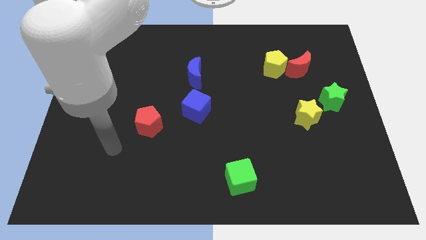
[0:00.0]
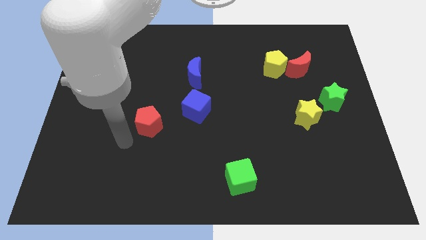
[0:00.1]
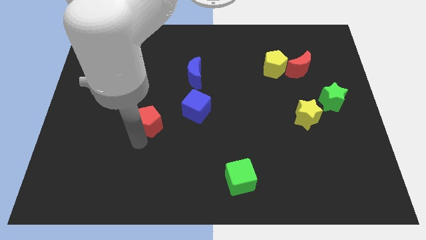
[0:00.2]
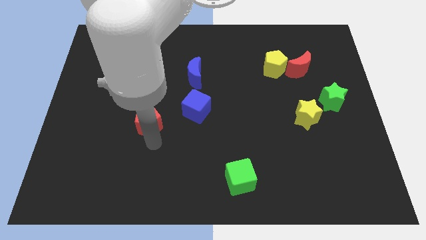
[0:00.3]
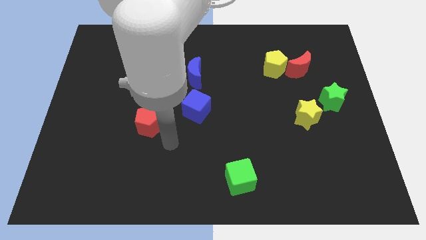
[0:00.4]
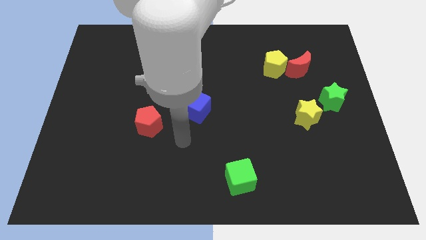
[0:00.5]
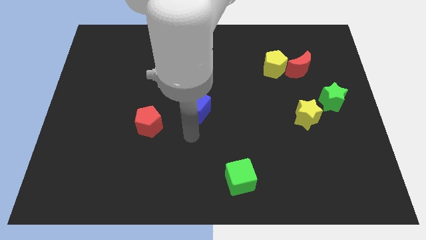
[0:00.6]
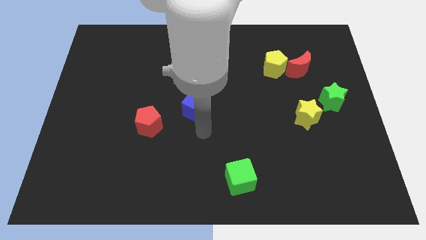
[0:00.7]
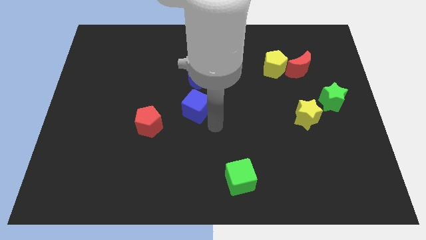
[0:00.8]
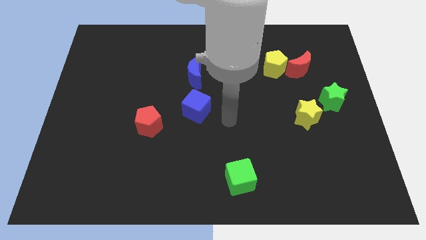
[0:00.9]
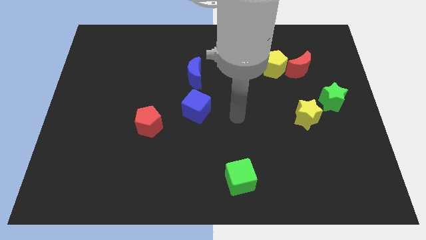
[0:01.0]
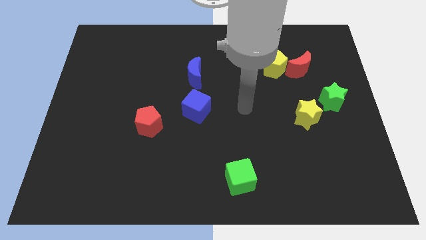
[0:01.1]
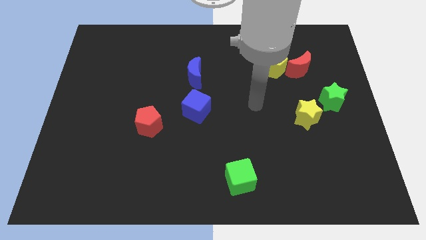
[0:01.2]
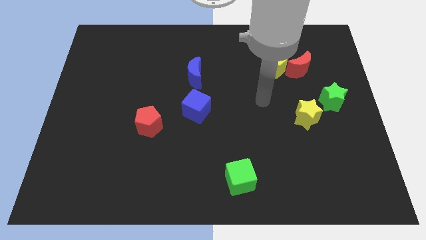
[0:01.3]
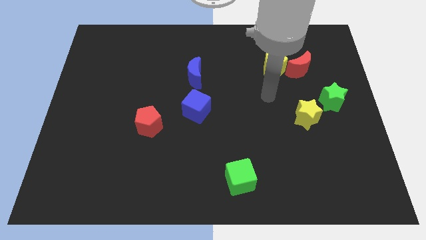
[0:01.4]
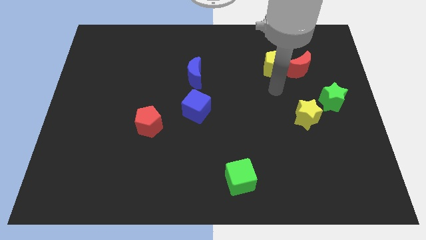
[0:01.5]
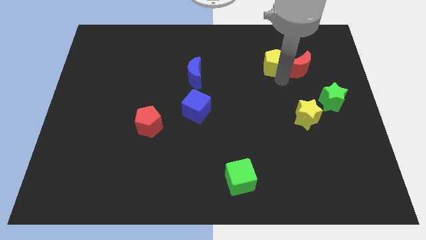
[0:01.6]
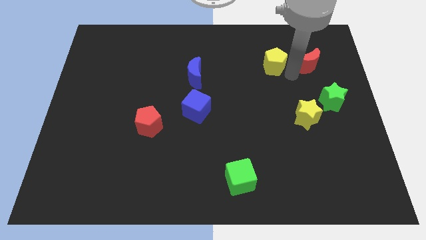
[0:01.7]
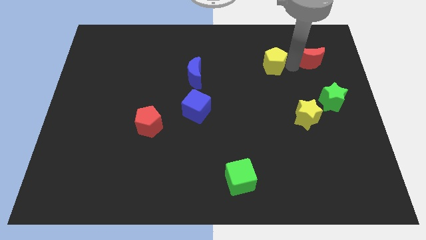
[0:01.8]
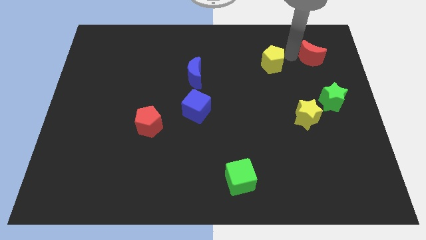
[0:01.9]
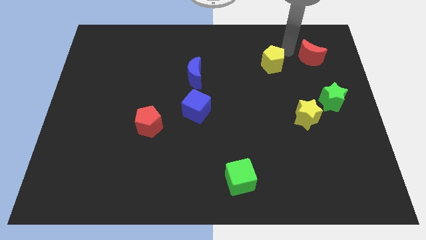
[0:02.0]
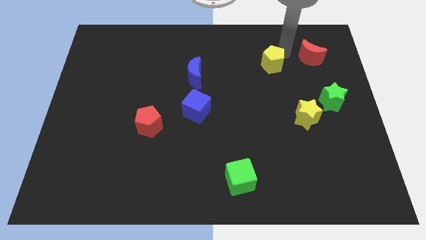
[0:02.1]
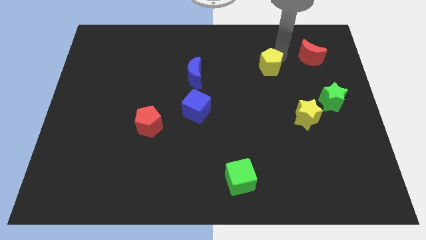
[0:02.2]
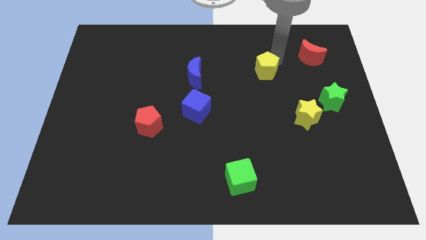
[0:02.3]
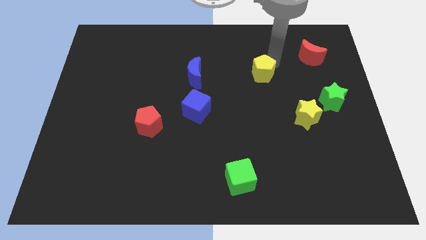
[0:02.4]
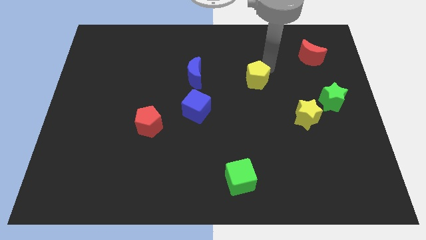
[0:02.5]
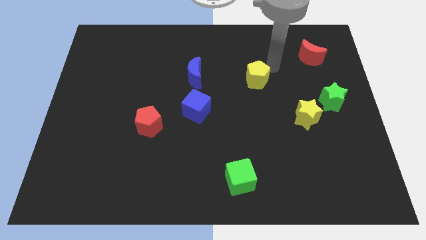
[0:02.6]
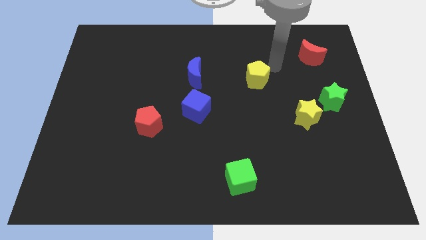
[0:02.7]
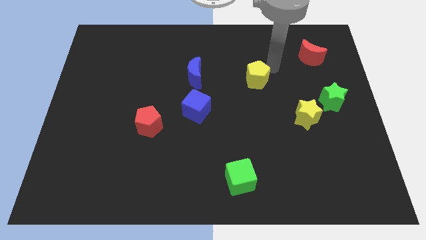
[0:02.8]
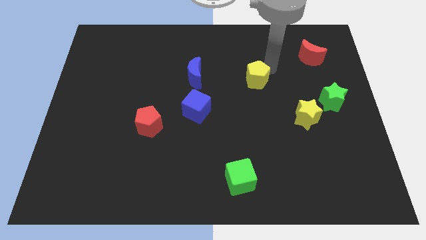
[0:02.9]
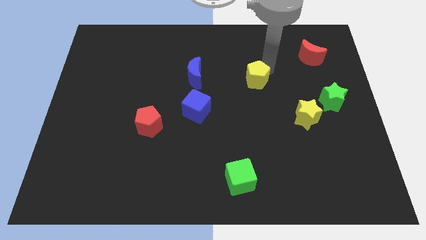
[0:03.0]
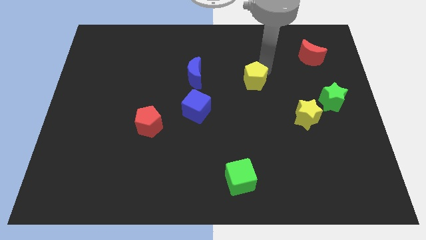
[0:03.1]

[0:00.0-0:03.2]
slide the yellow pentagon diagonally down and left a bit

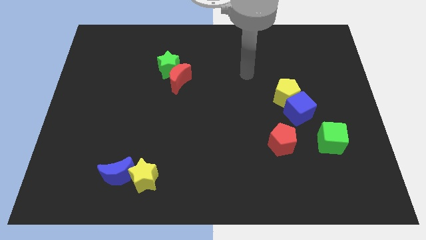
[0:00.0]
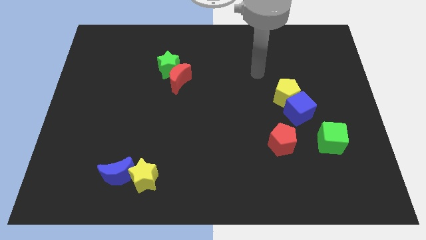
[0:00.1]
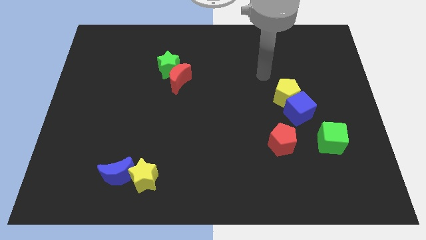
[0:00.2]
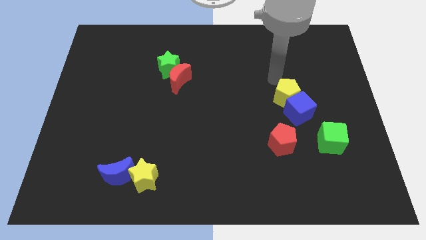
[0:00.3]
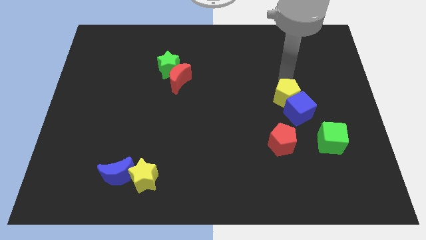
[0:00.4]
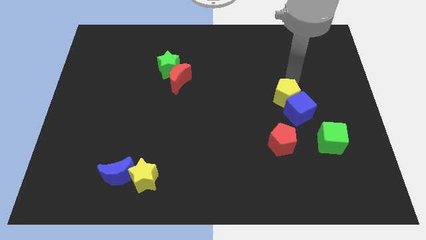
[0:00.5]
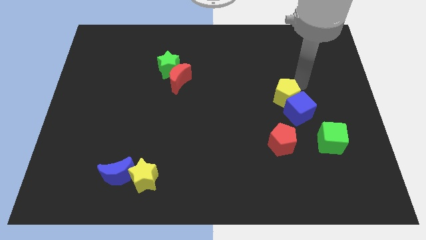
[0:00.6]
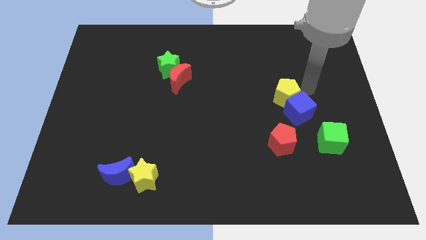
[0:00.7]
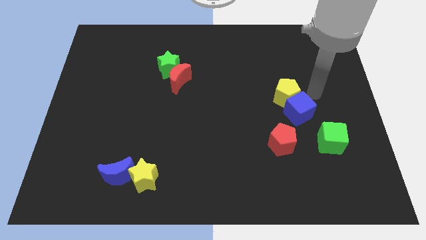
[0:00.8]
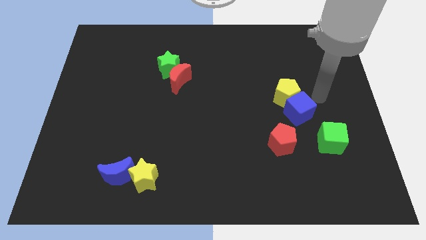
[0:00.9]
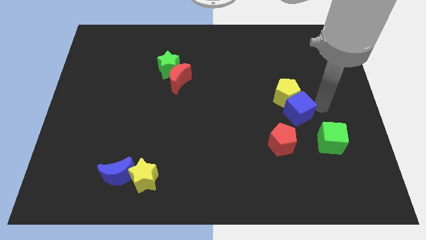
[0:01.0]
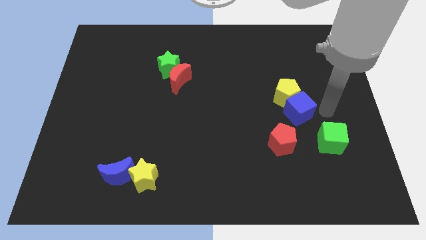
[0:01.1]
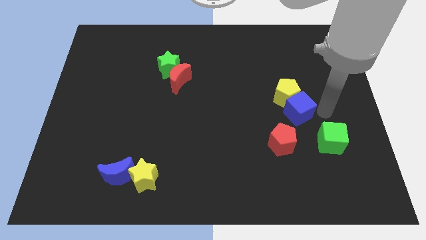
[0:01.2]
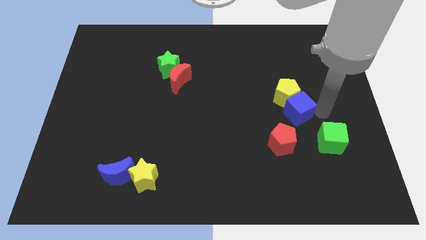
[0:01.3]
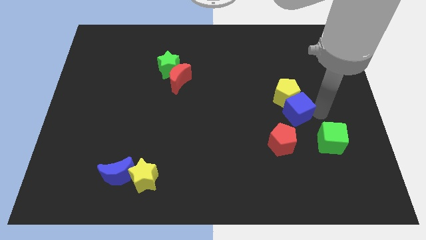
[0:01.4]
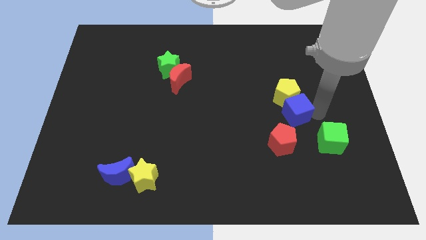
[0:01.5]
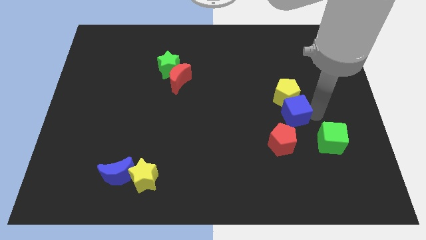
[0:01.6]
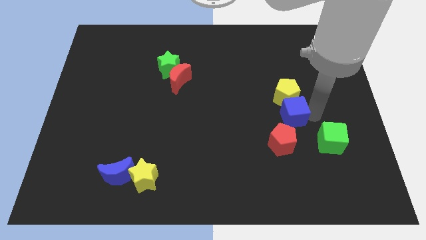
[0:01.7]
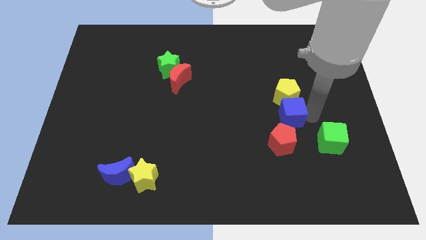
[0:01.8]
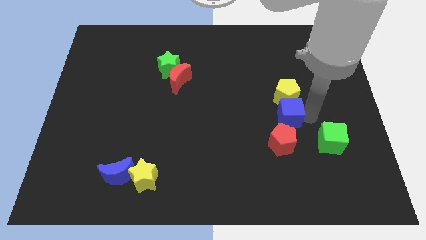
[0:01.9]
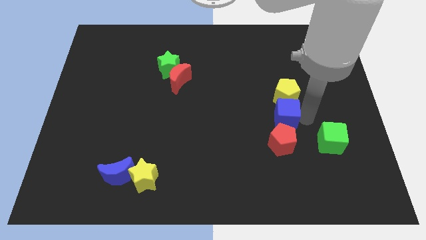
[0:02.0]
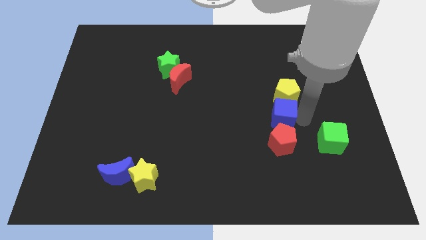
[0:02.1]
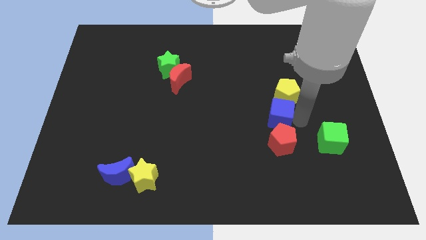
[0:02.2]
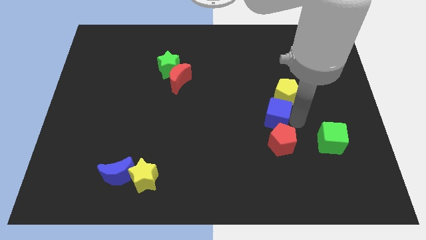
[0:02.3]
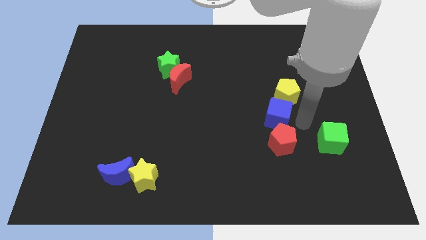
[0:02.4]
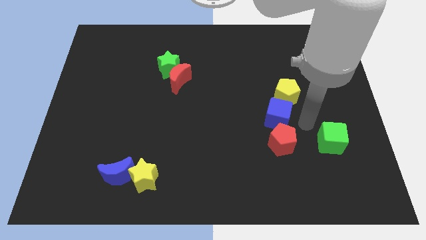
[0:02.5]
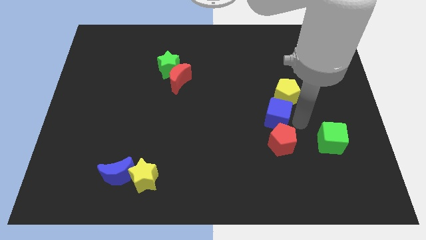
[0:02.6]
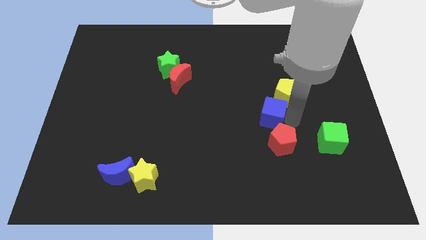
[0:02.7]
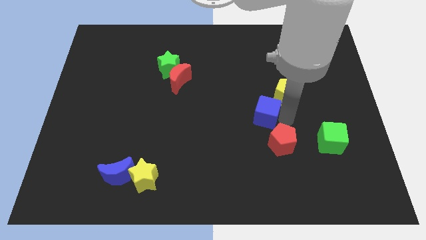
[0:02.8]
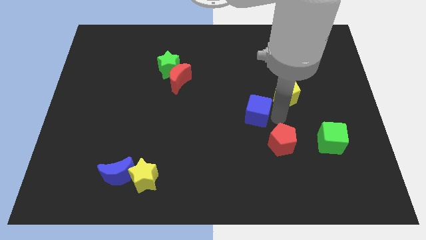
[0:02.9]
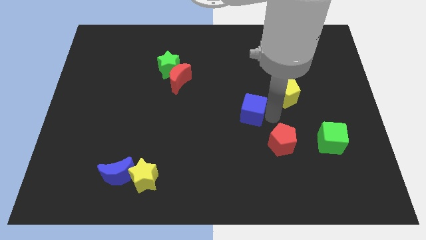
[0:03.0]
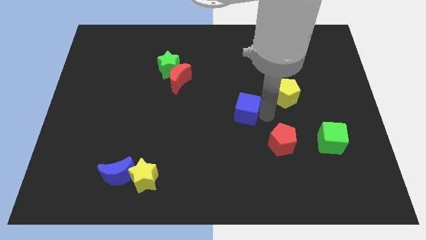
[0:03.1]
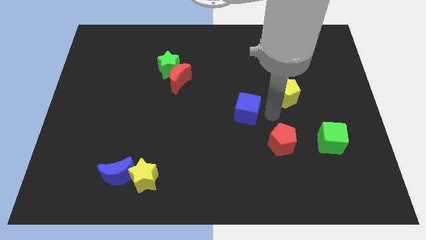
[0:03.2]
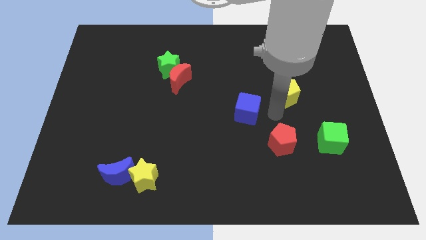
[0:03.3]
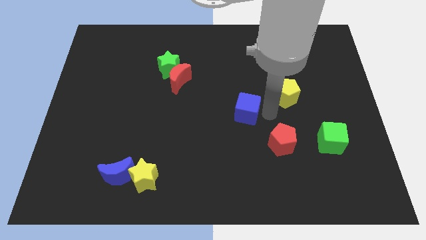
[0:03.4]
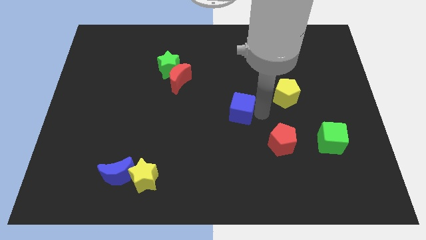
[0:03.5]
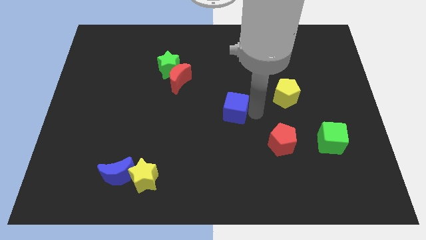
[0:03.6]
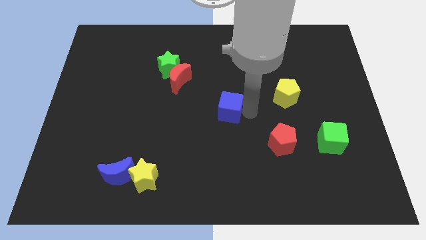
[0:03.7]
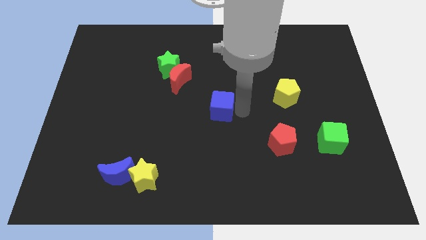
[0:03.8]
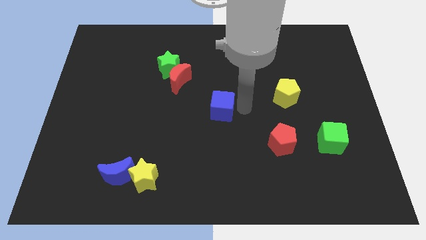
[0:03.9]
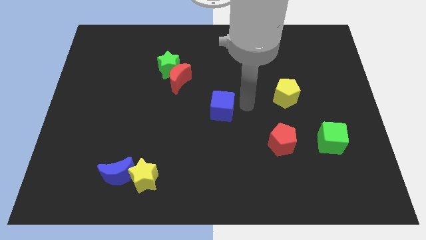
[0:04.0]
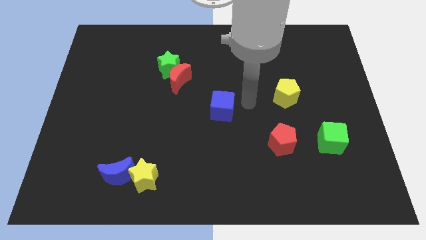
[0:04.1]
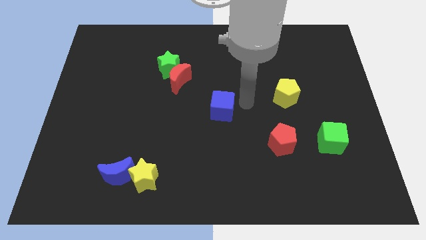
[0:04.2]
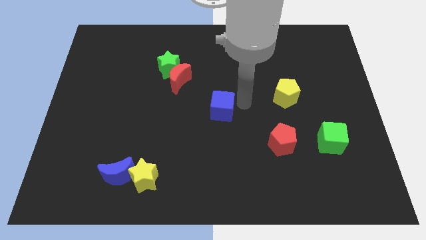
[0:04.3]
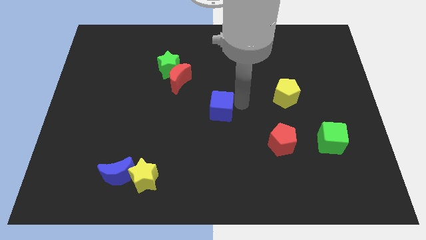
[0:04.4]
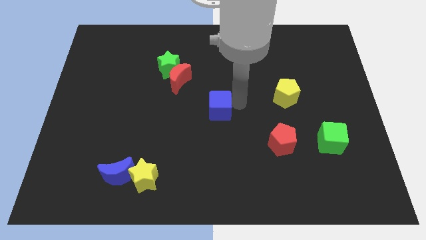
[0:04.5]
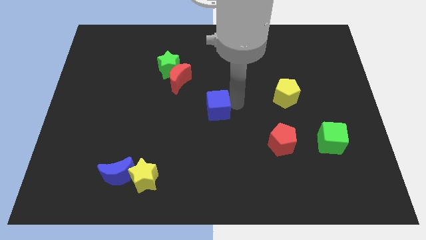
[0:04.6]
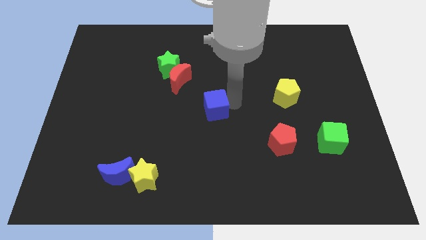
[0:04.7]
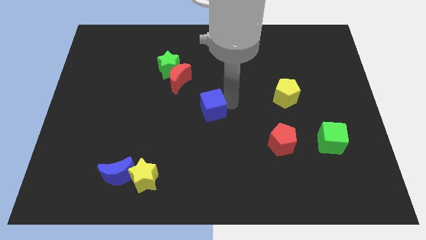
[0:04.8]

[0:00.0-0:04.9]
slide the blue cube left
